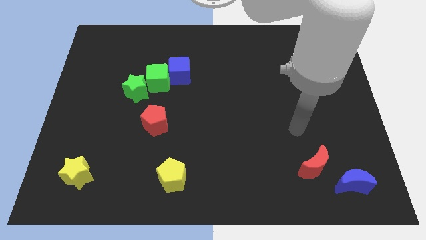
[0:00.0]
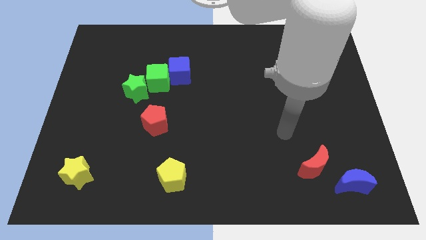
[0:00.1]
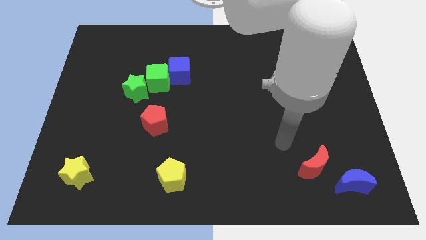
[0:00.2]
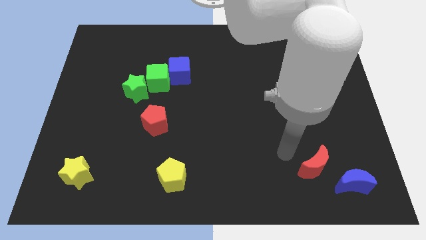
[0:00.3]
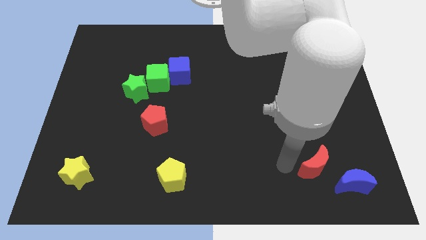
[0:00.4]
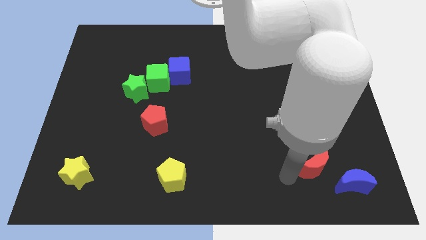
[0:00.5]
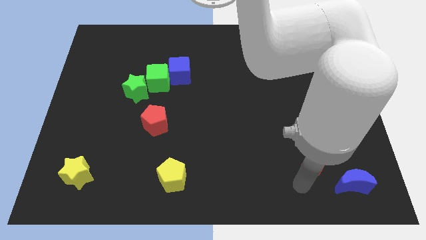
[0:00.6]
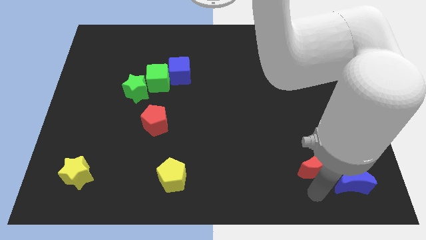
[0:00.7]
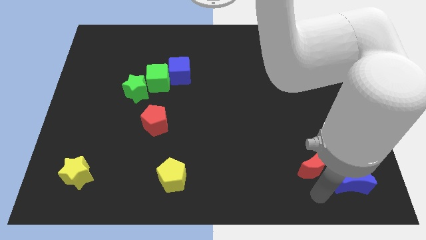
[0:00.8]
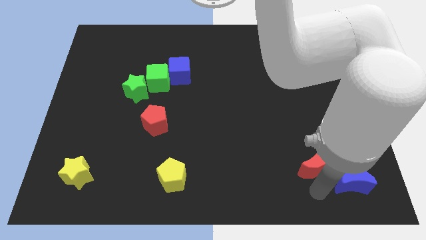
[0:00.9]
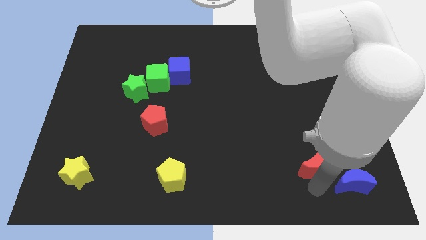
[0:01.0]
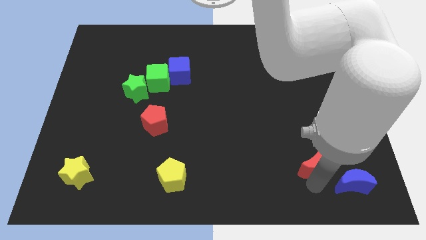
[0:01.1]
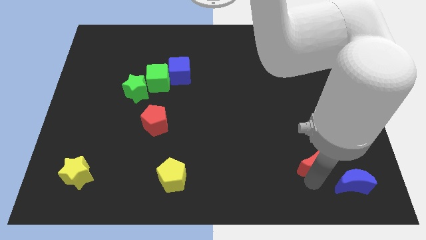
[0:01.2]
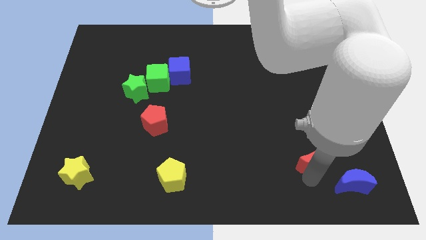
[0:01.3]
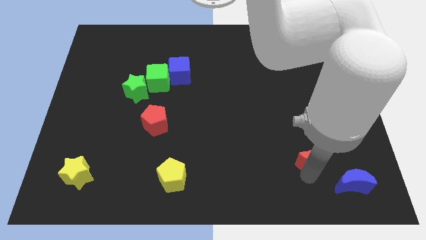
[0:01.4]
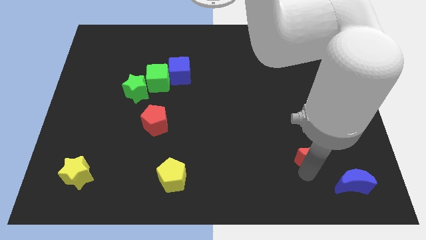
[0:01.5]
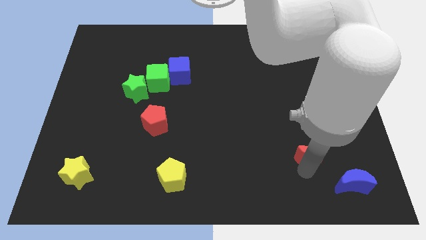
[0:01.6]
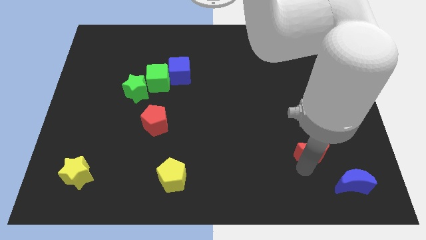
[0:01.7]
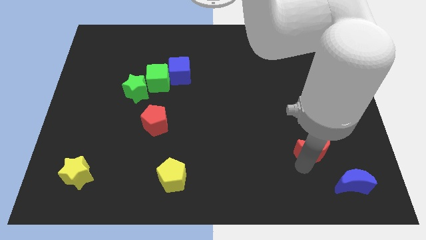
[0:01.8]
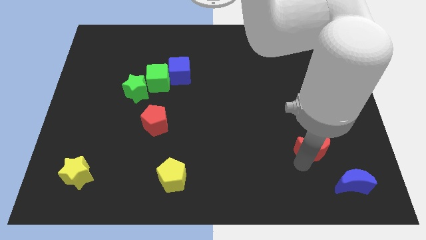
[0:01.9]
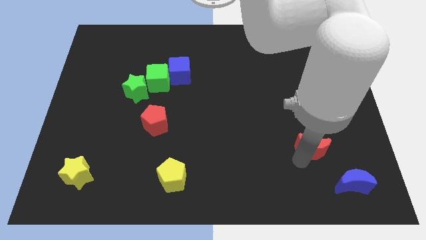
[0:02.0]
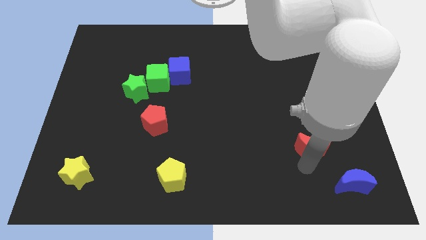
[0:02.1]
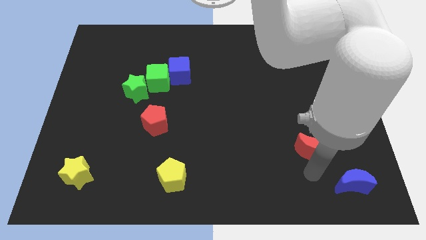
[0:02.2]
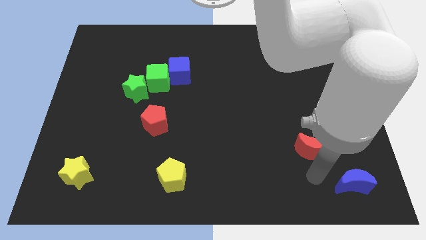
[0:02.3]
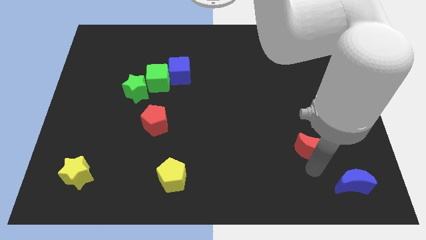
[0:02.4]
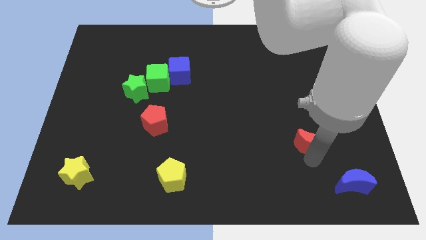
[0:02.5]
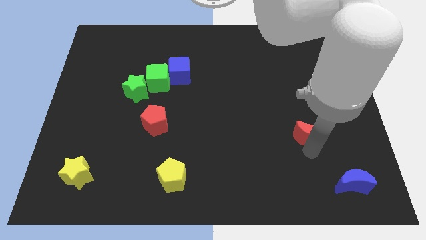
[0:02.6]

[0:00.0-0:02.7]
move the red moon a bit upwards

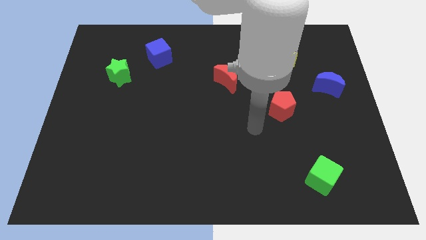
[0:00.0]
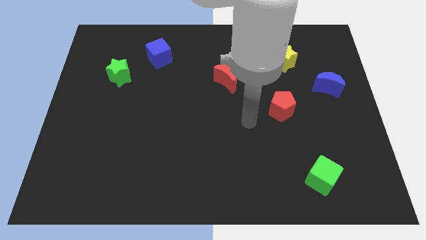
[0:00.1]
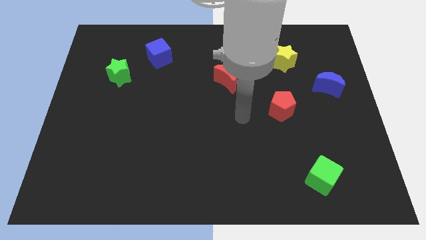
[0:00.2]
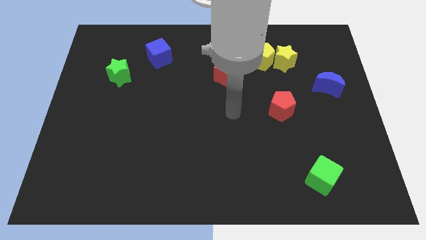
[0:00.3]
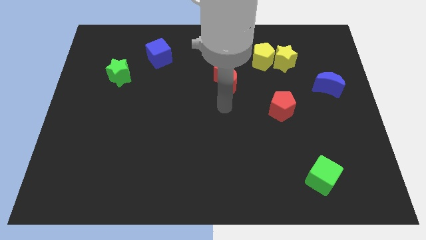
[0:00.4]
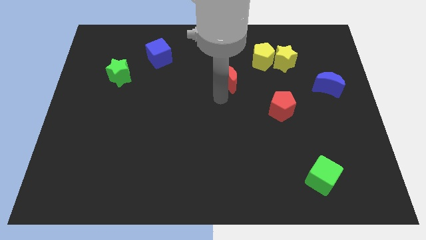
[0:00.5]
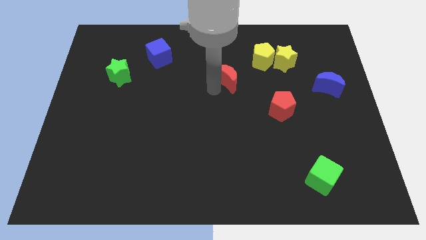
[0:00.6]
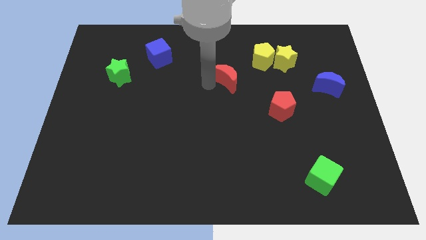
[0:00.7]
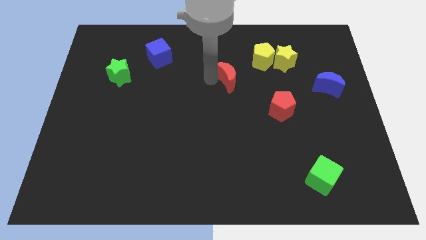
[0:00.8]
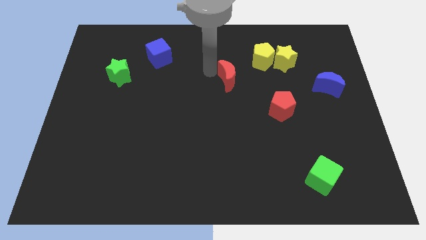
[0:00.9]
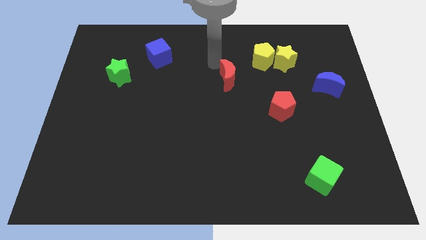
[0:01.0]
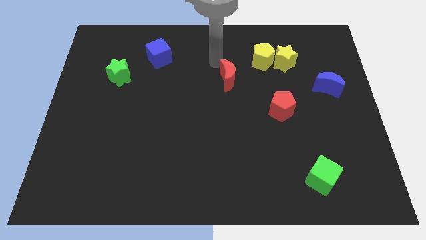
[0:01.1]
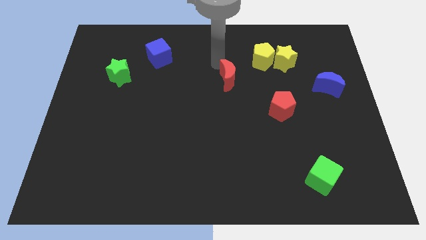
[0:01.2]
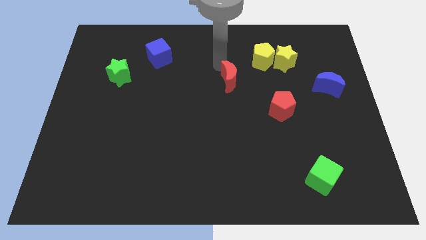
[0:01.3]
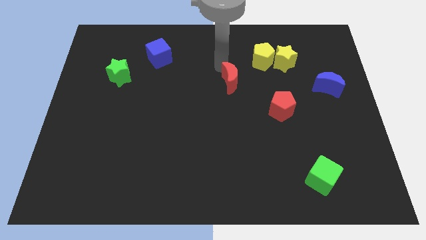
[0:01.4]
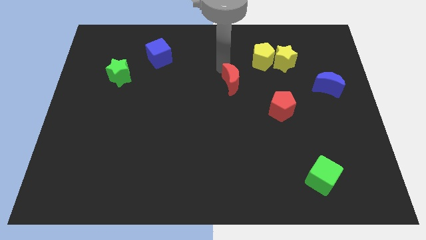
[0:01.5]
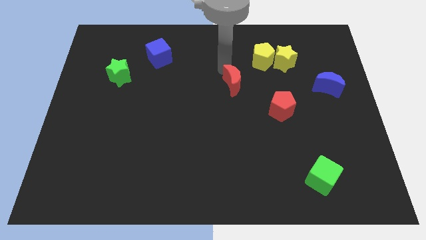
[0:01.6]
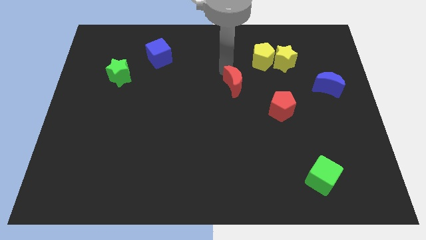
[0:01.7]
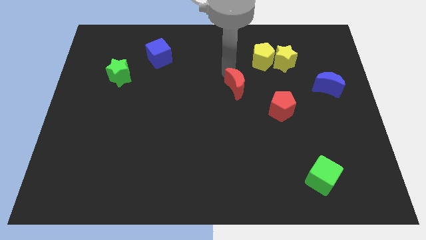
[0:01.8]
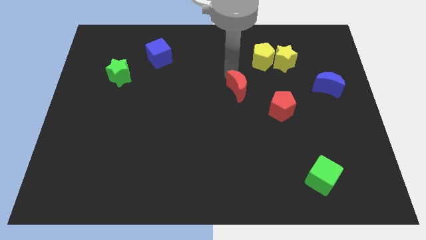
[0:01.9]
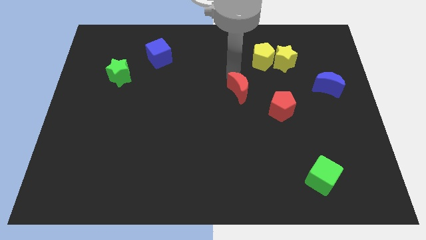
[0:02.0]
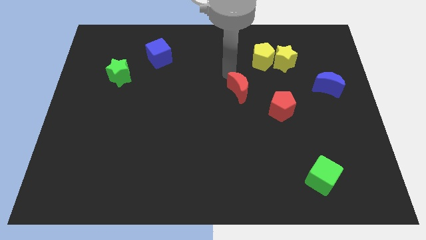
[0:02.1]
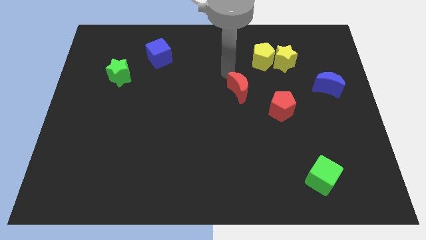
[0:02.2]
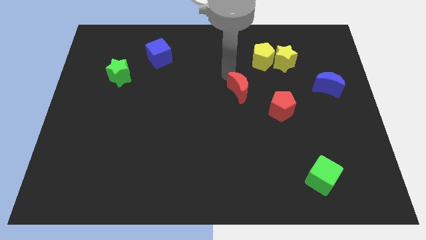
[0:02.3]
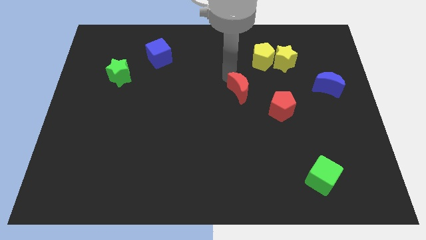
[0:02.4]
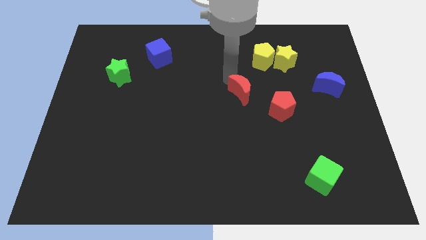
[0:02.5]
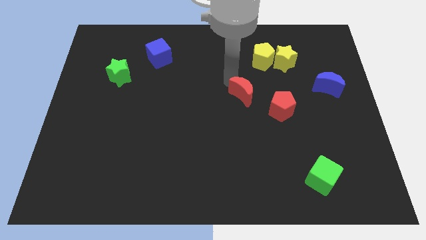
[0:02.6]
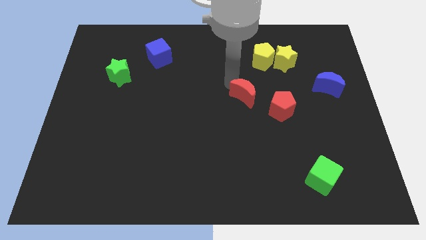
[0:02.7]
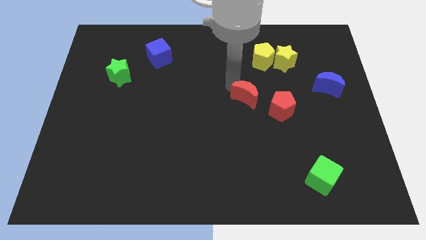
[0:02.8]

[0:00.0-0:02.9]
slightly push the red moon downwards and then right

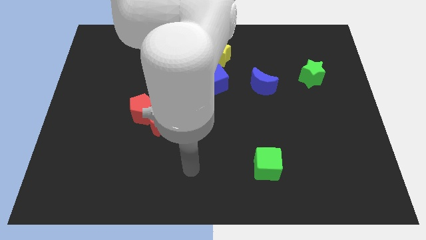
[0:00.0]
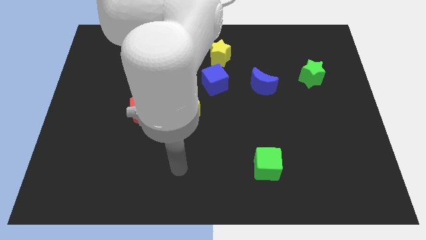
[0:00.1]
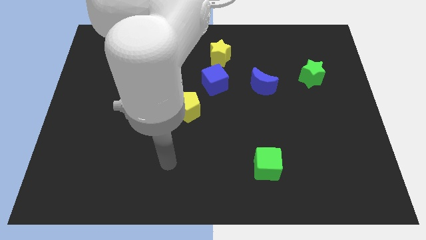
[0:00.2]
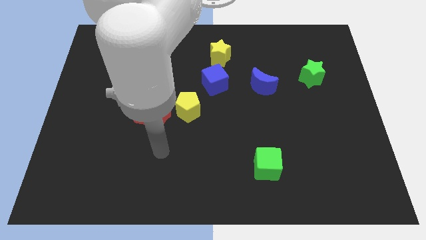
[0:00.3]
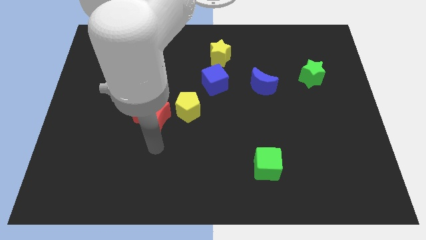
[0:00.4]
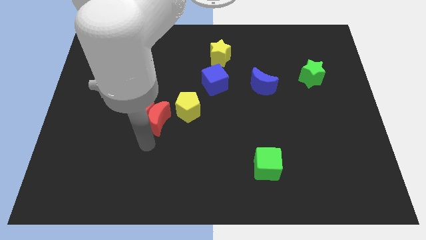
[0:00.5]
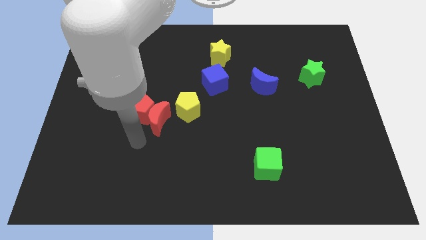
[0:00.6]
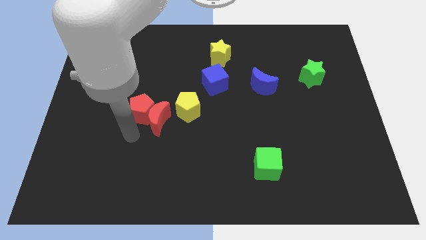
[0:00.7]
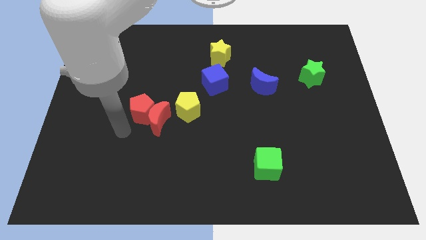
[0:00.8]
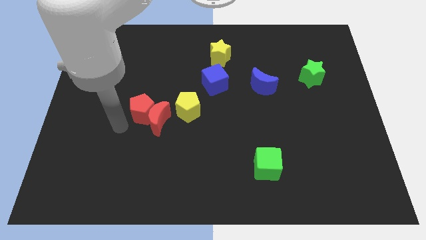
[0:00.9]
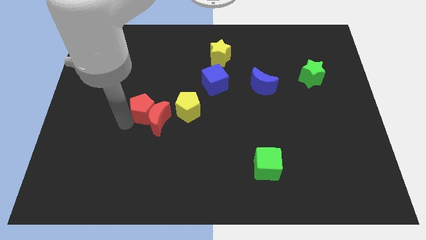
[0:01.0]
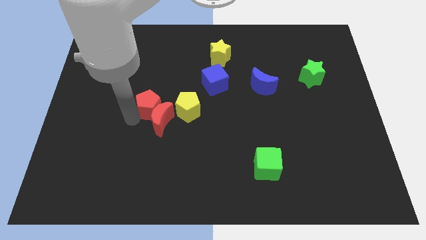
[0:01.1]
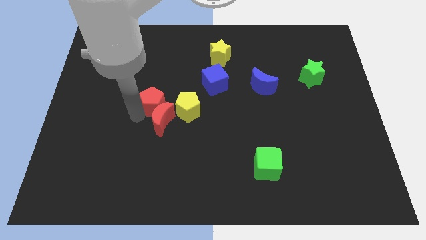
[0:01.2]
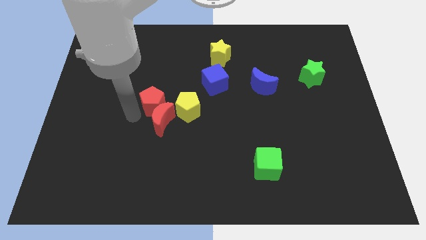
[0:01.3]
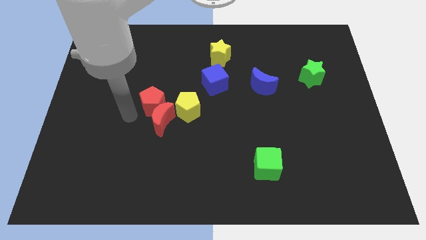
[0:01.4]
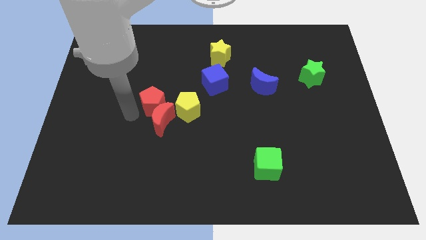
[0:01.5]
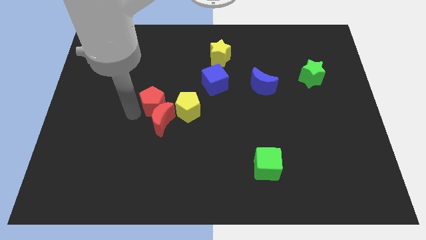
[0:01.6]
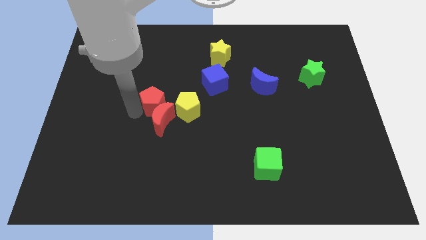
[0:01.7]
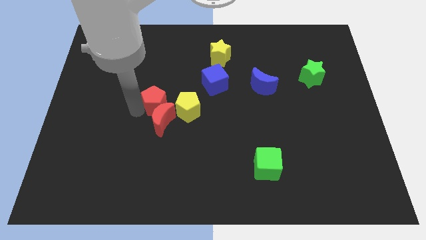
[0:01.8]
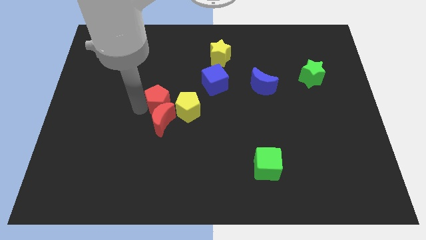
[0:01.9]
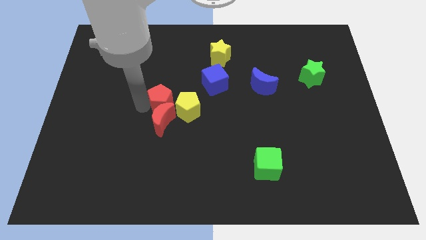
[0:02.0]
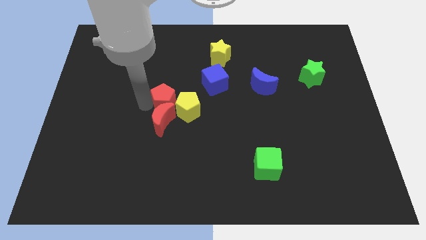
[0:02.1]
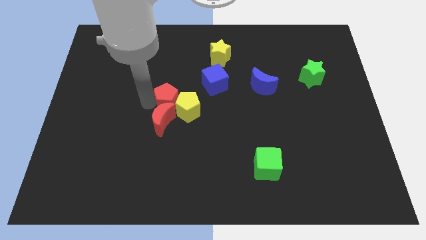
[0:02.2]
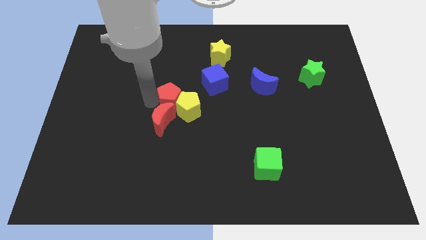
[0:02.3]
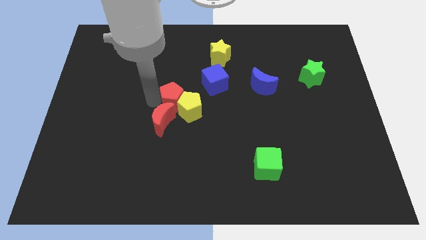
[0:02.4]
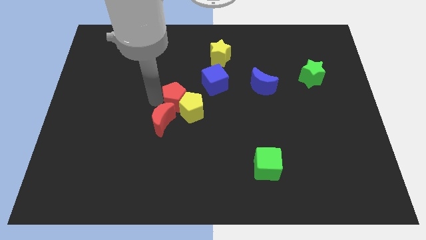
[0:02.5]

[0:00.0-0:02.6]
slide the red pentagon to the right a little bit
